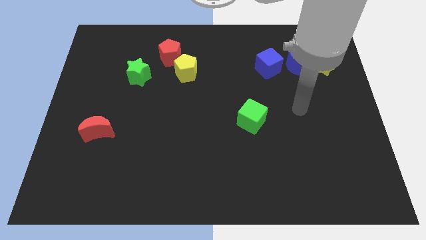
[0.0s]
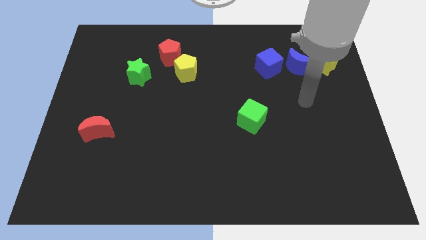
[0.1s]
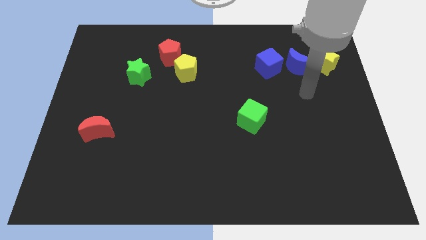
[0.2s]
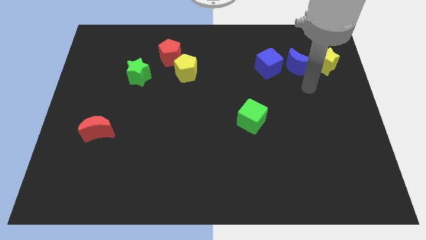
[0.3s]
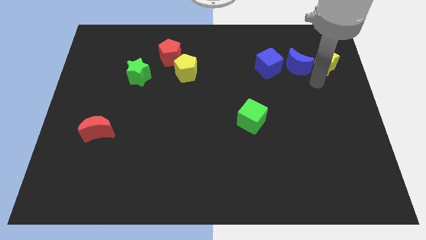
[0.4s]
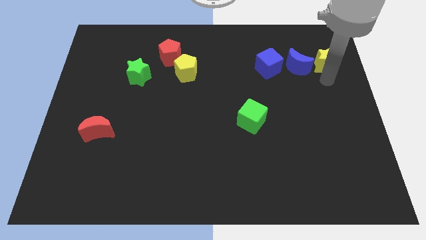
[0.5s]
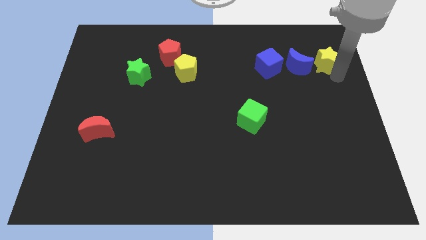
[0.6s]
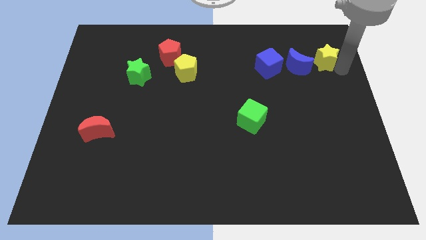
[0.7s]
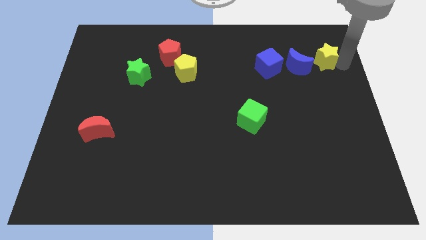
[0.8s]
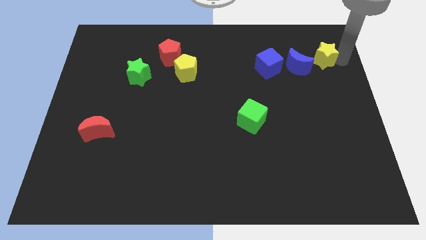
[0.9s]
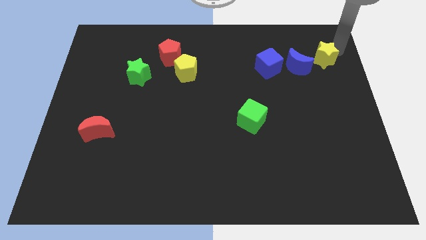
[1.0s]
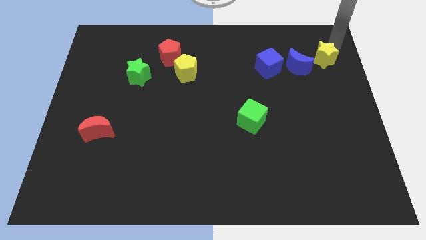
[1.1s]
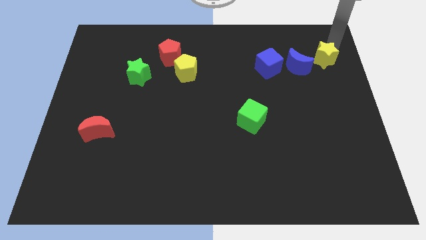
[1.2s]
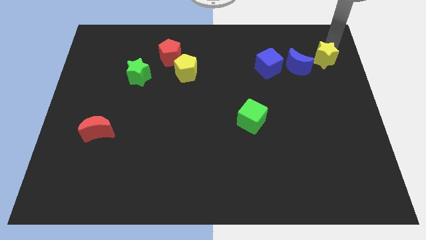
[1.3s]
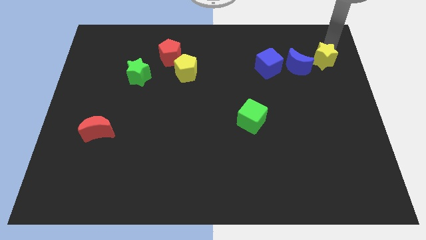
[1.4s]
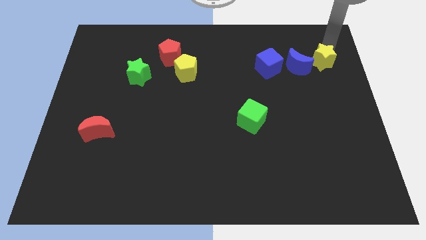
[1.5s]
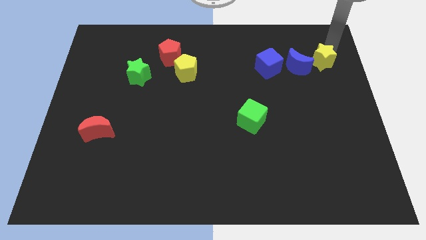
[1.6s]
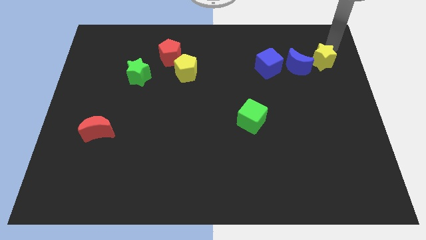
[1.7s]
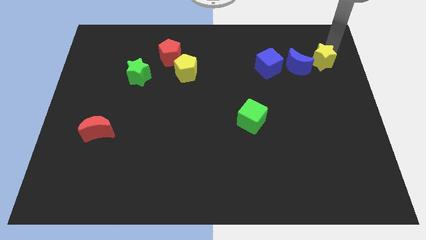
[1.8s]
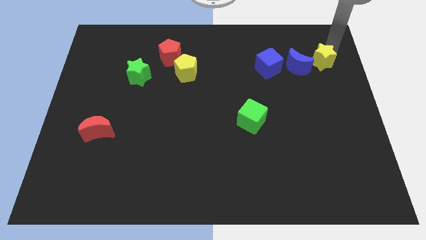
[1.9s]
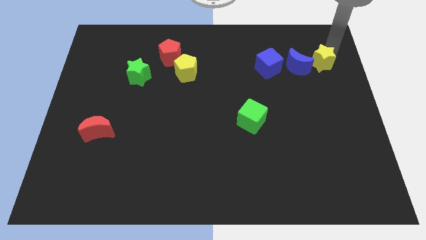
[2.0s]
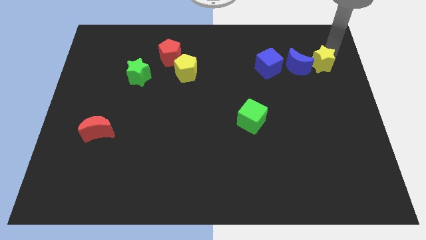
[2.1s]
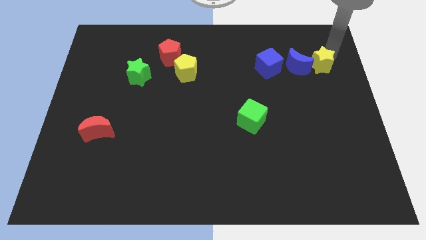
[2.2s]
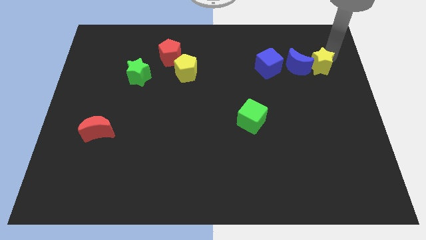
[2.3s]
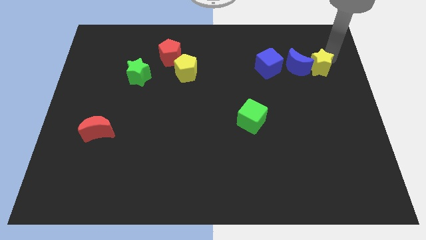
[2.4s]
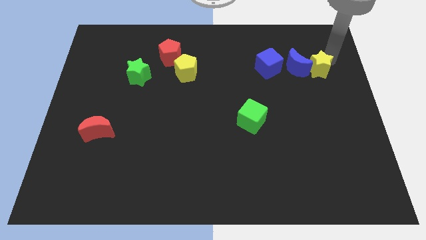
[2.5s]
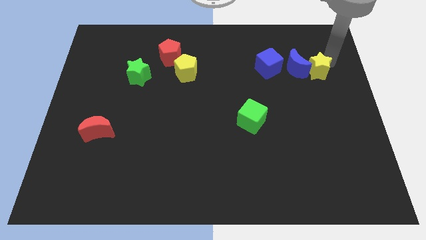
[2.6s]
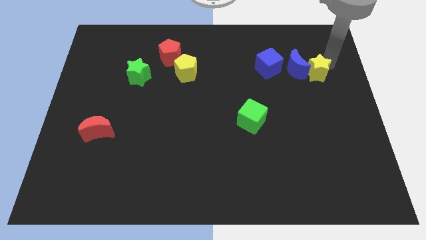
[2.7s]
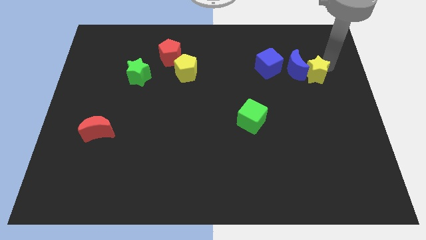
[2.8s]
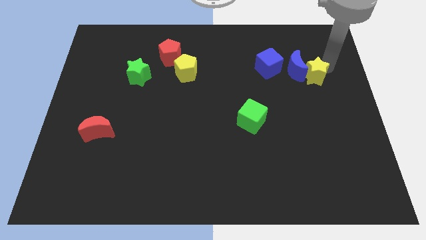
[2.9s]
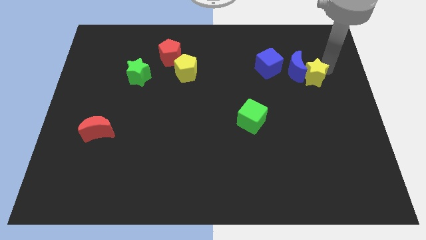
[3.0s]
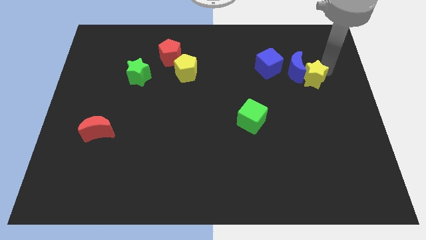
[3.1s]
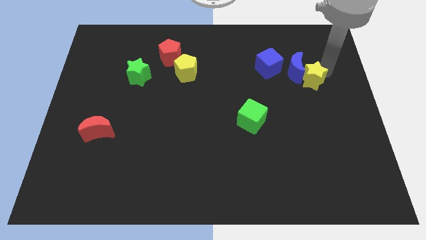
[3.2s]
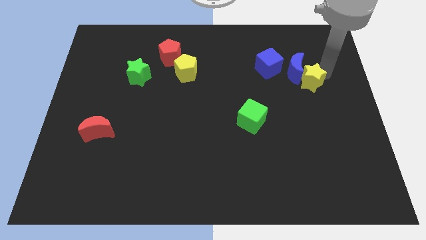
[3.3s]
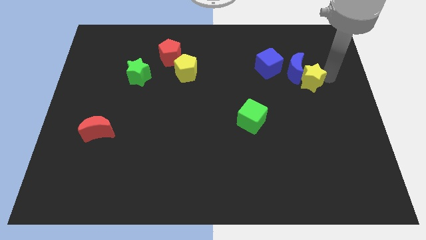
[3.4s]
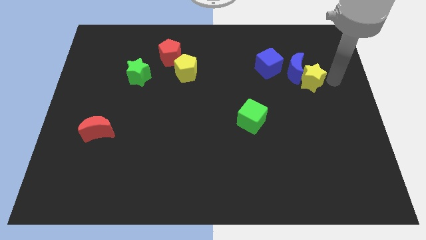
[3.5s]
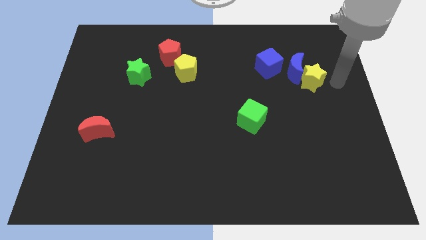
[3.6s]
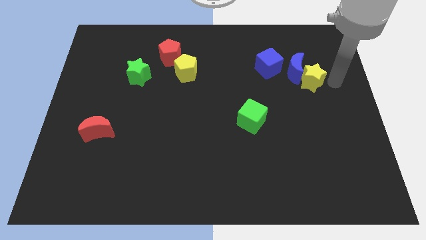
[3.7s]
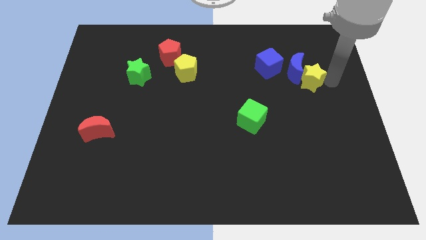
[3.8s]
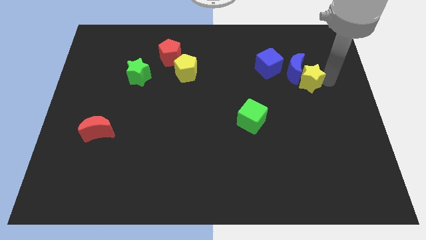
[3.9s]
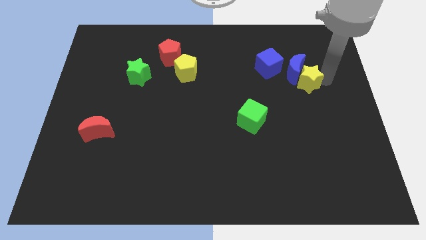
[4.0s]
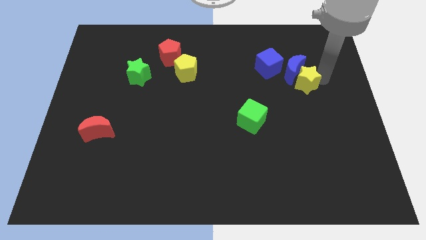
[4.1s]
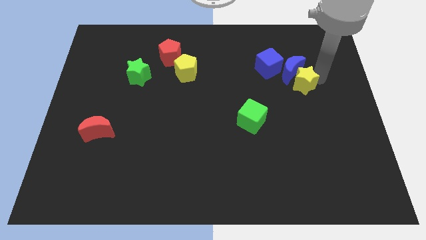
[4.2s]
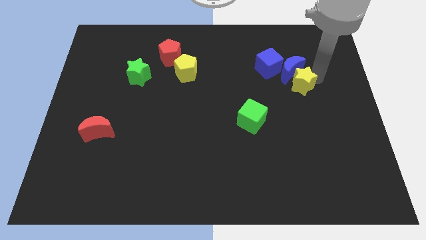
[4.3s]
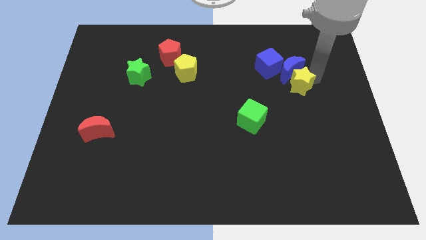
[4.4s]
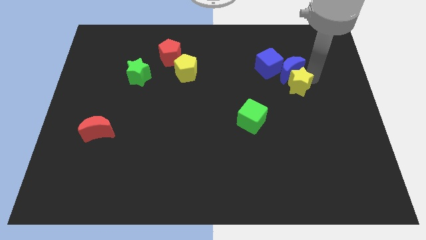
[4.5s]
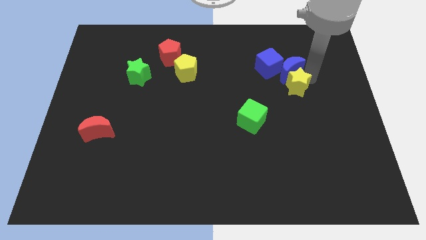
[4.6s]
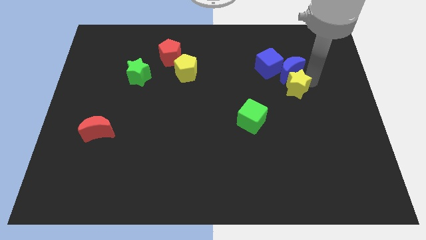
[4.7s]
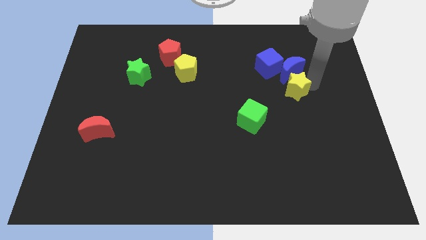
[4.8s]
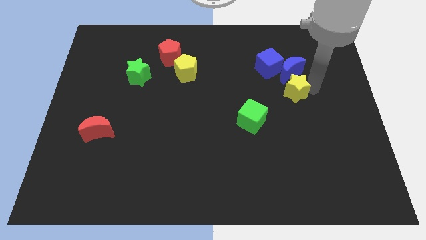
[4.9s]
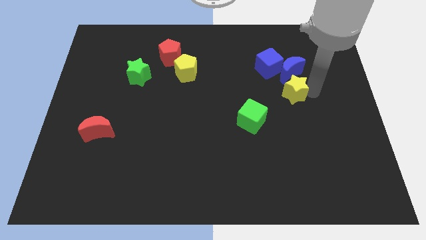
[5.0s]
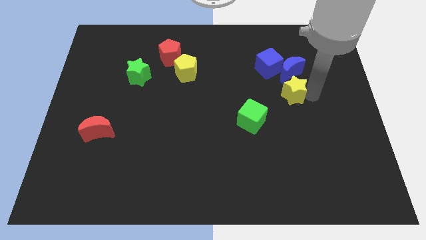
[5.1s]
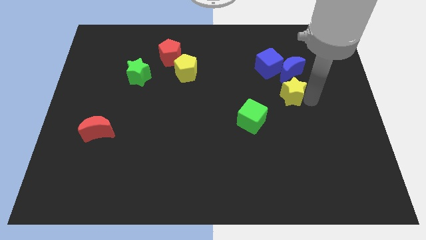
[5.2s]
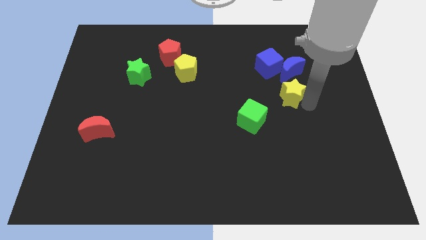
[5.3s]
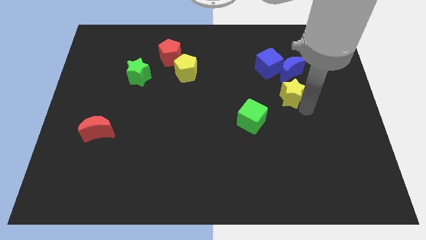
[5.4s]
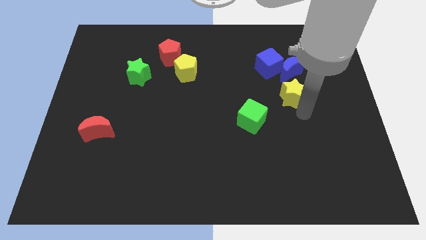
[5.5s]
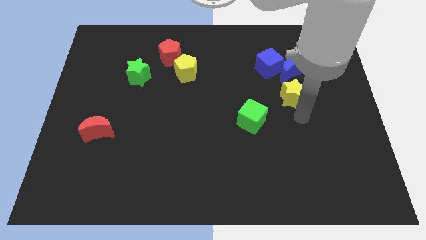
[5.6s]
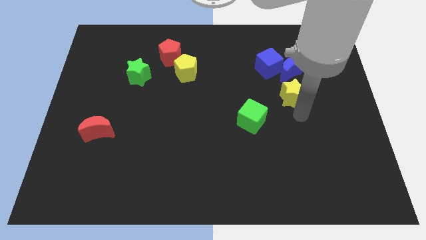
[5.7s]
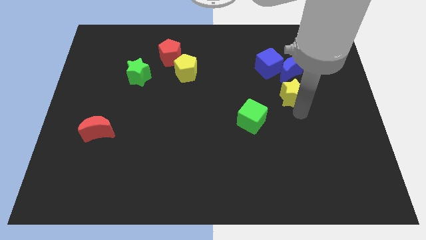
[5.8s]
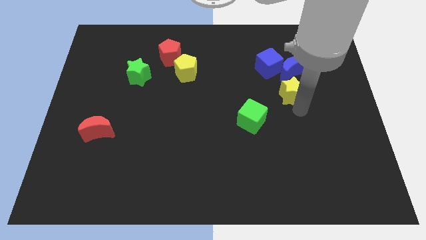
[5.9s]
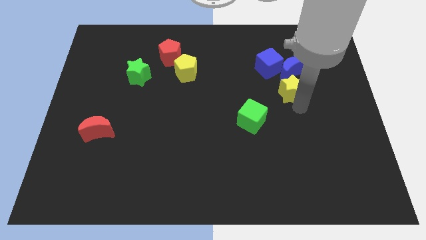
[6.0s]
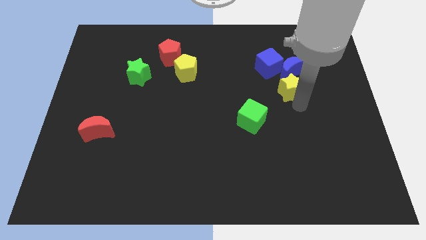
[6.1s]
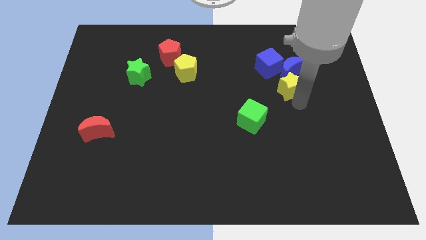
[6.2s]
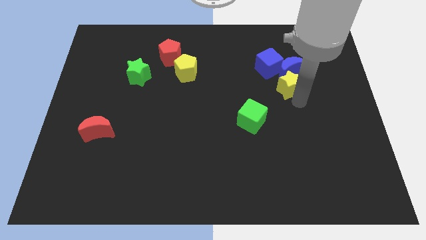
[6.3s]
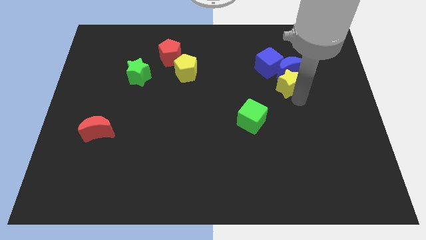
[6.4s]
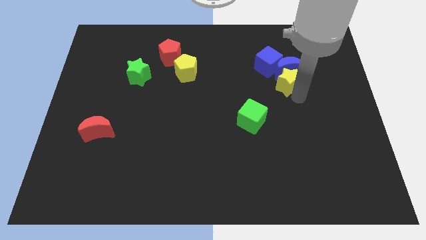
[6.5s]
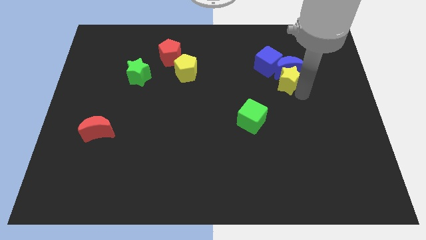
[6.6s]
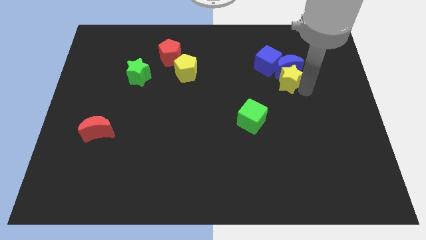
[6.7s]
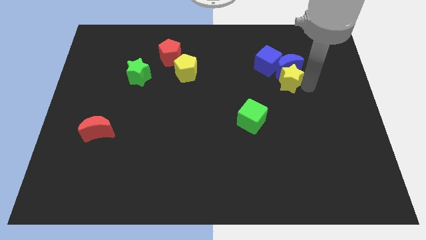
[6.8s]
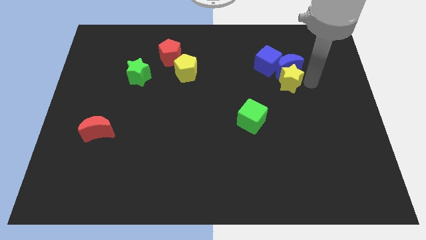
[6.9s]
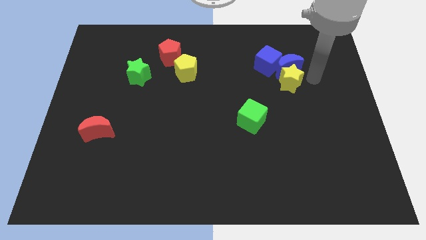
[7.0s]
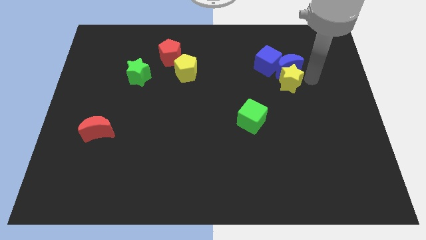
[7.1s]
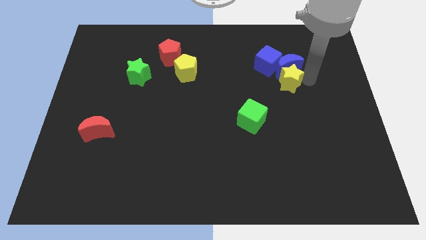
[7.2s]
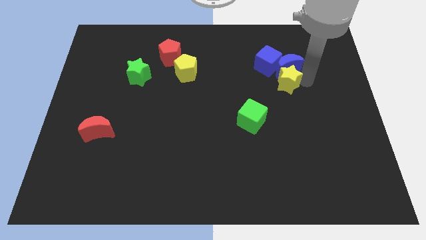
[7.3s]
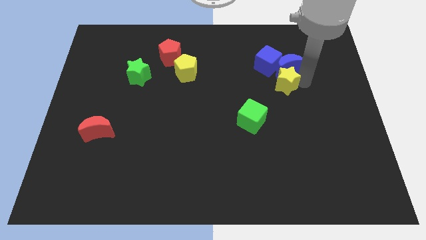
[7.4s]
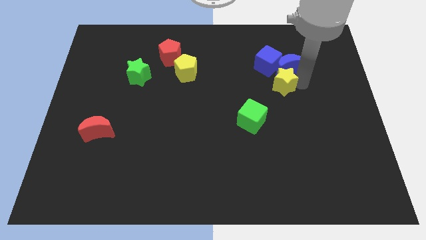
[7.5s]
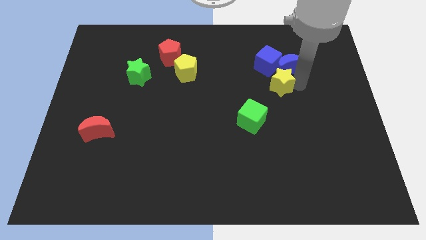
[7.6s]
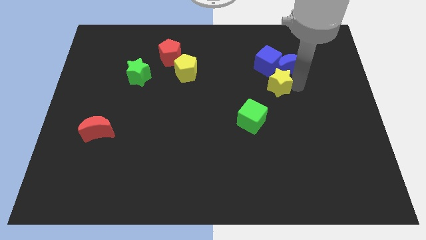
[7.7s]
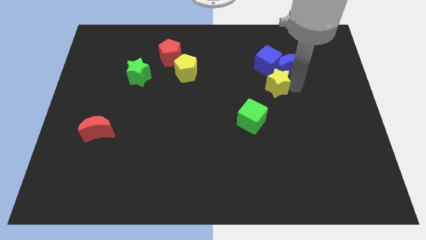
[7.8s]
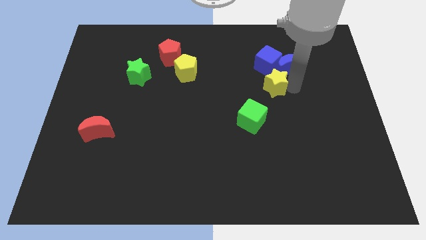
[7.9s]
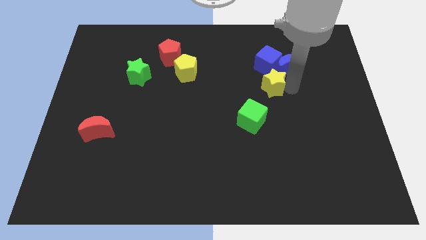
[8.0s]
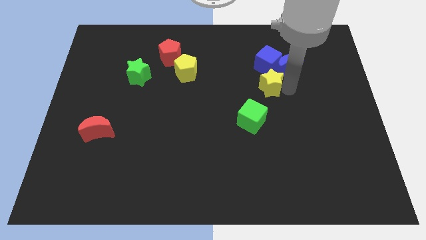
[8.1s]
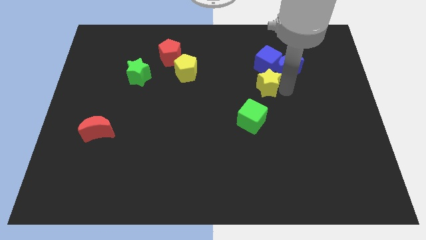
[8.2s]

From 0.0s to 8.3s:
push the yellow star to the top side of the green cube
